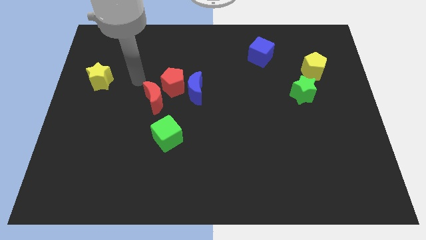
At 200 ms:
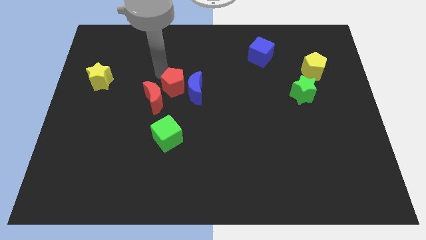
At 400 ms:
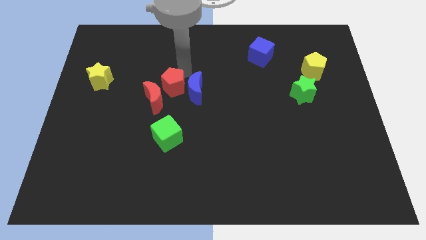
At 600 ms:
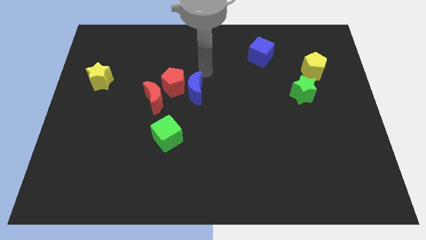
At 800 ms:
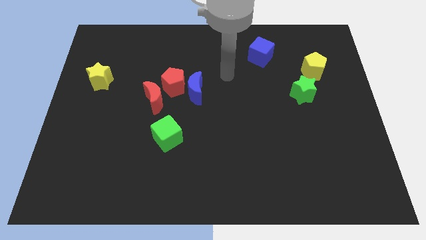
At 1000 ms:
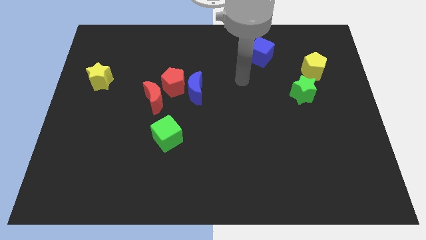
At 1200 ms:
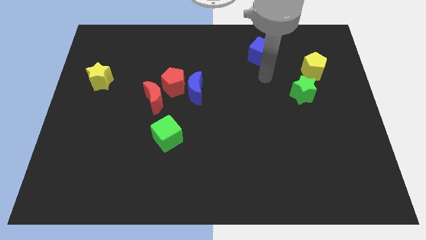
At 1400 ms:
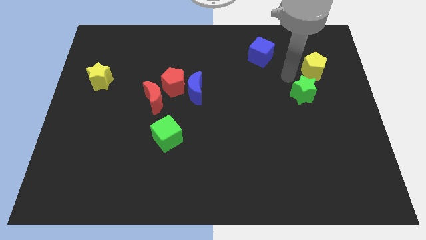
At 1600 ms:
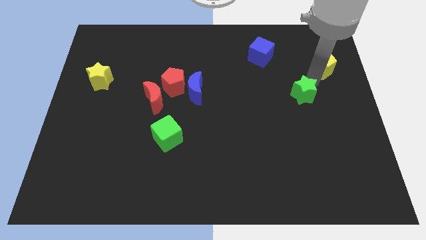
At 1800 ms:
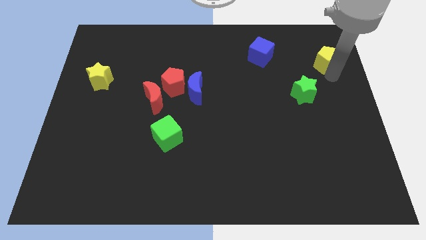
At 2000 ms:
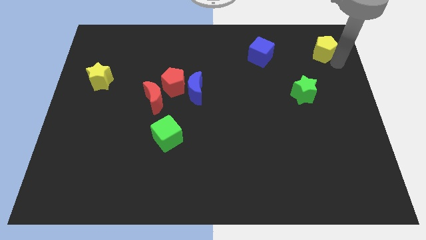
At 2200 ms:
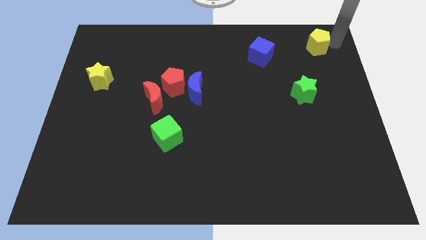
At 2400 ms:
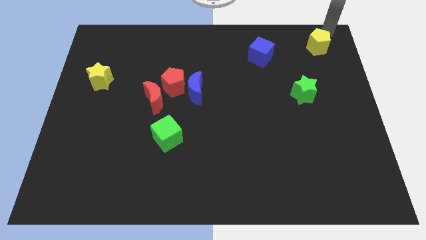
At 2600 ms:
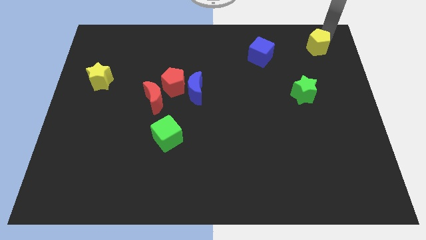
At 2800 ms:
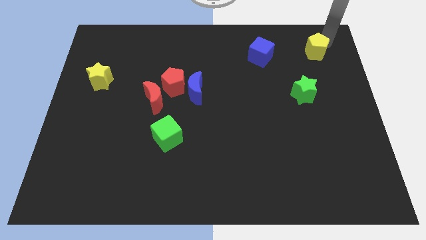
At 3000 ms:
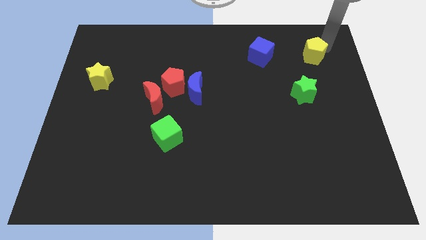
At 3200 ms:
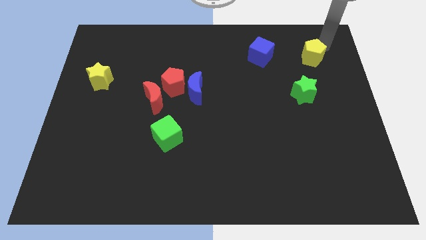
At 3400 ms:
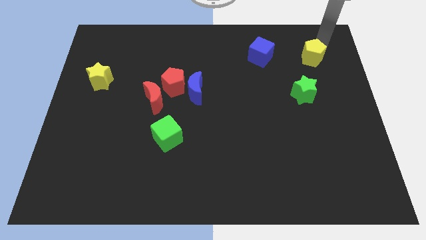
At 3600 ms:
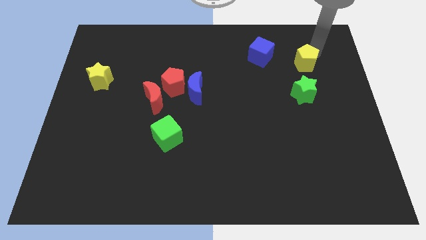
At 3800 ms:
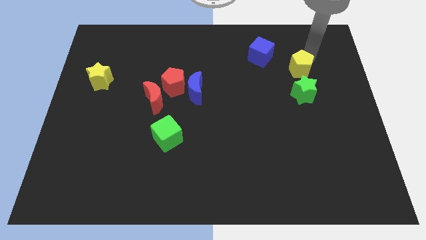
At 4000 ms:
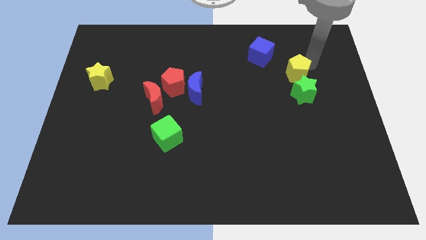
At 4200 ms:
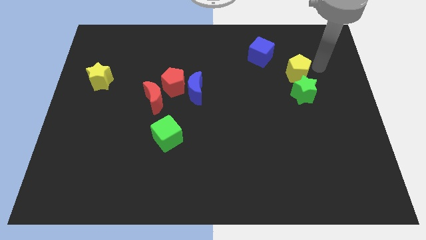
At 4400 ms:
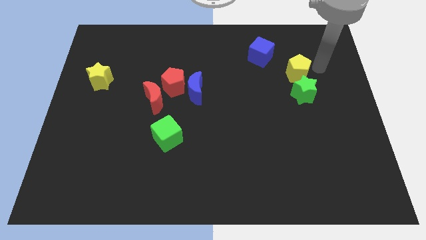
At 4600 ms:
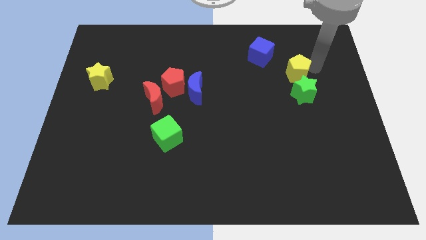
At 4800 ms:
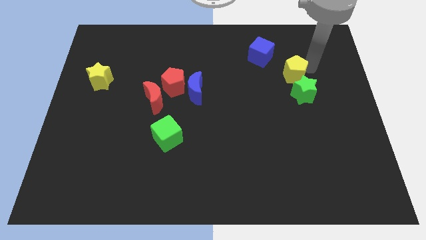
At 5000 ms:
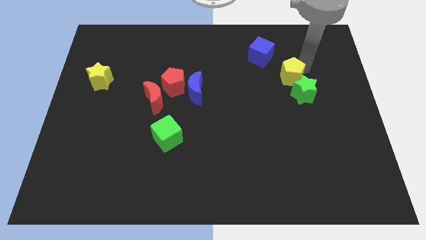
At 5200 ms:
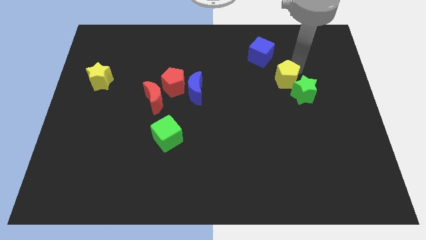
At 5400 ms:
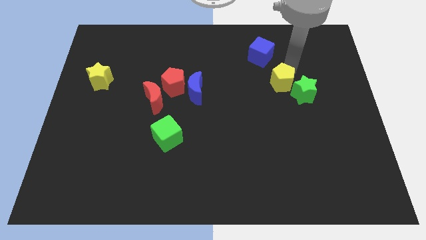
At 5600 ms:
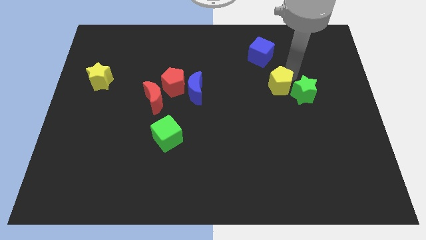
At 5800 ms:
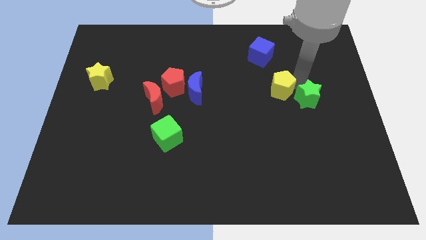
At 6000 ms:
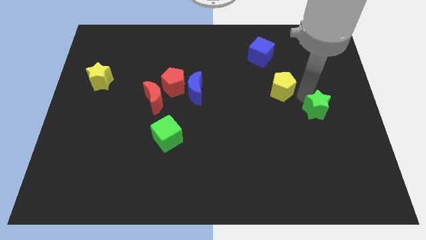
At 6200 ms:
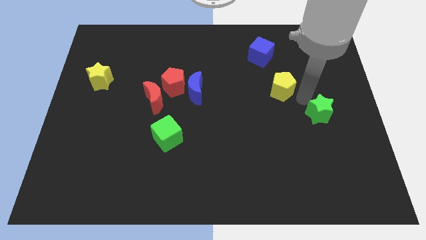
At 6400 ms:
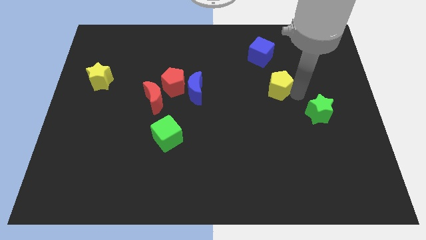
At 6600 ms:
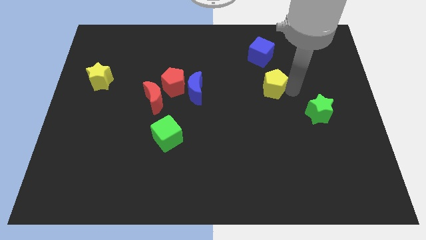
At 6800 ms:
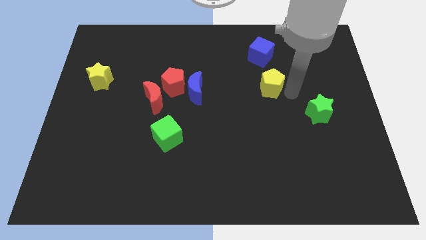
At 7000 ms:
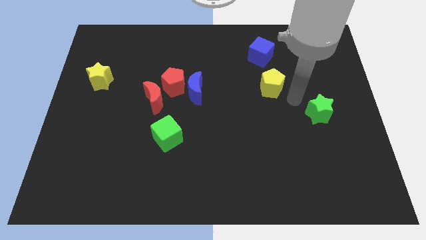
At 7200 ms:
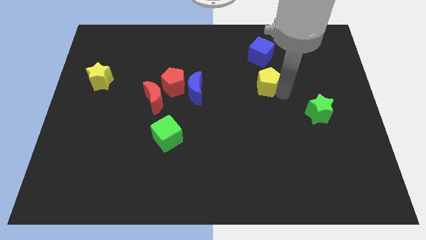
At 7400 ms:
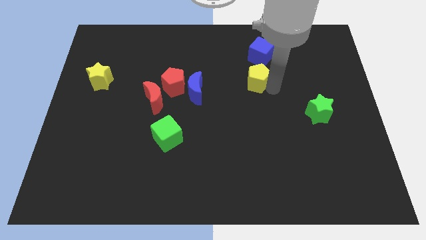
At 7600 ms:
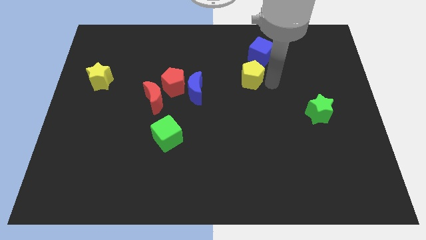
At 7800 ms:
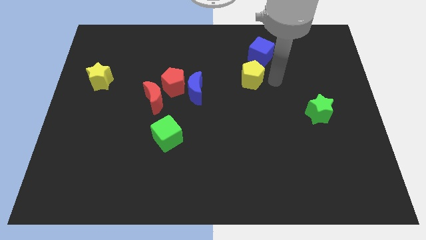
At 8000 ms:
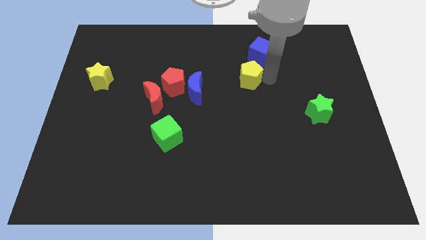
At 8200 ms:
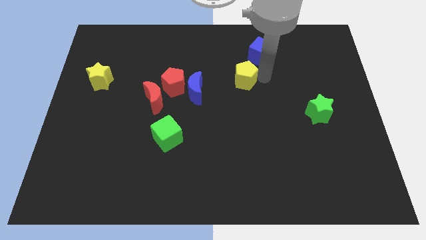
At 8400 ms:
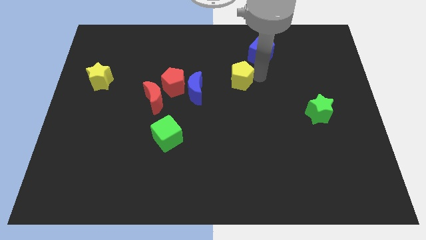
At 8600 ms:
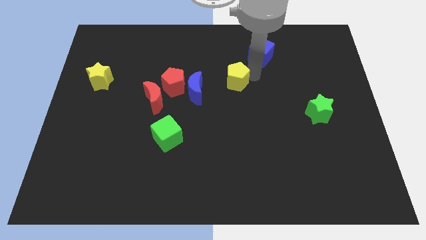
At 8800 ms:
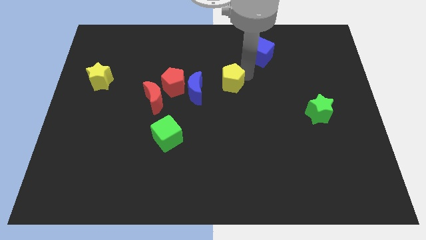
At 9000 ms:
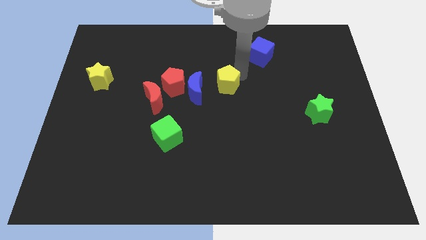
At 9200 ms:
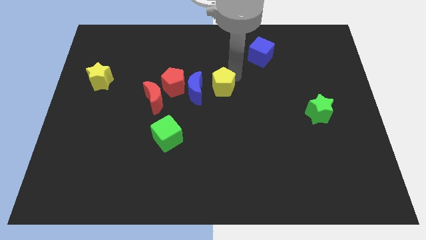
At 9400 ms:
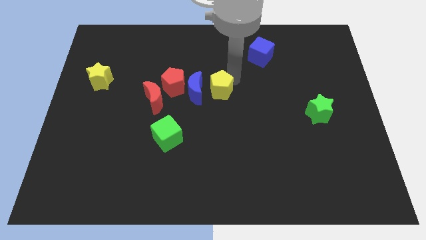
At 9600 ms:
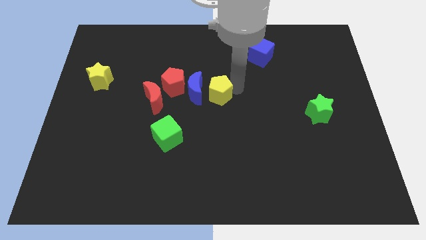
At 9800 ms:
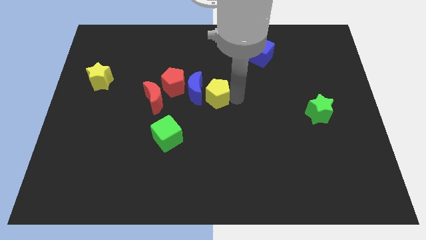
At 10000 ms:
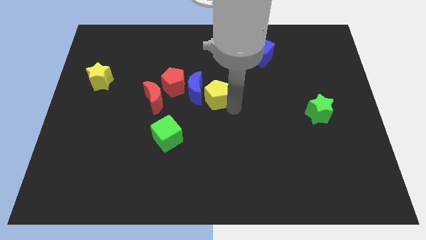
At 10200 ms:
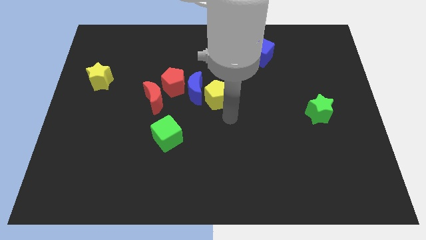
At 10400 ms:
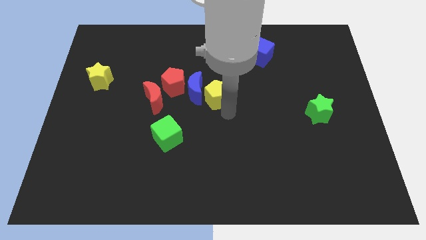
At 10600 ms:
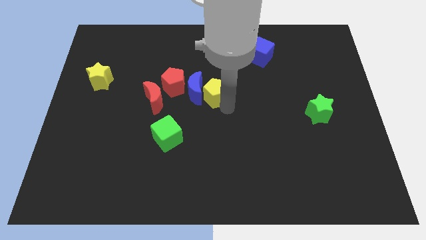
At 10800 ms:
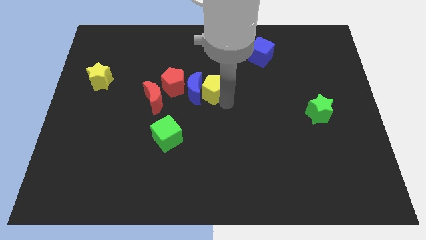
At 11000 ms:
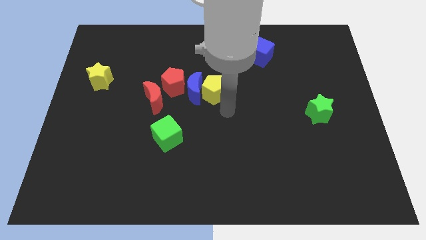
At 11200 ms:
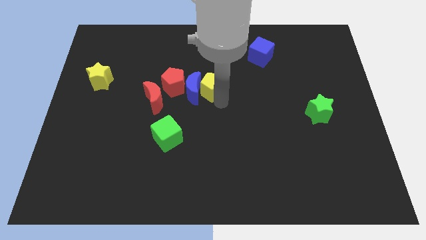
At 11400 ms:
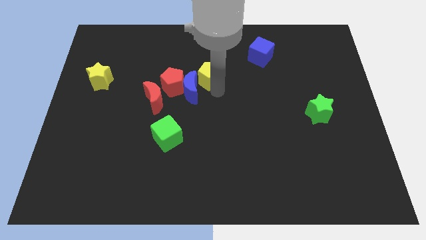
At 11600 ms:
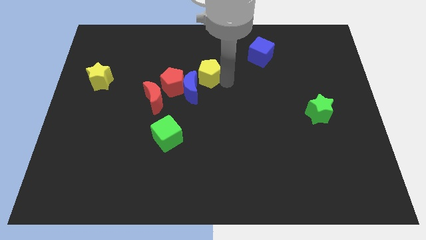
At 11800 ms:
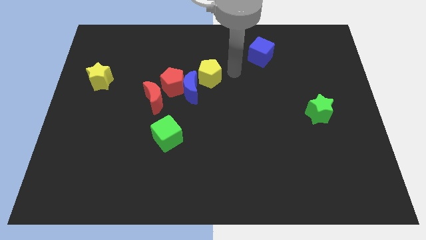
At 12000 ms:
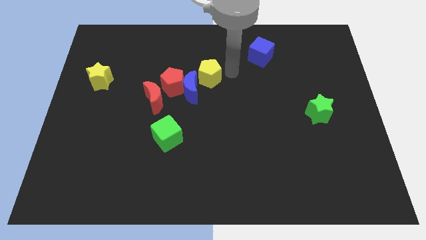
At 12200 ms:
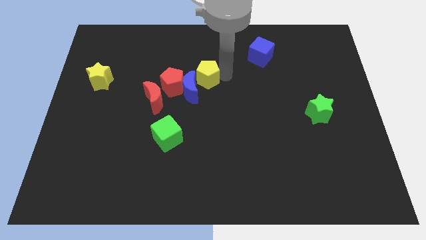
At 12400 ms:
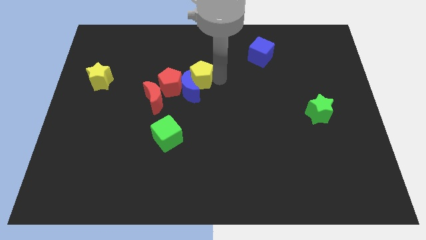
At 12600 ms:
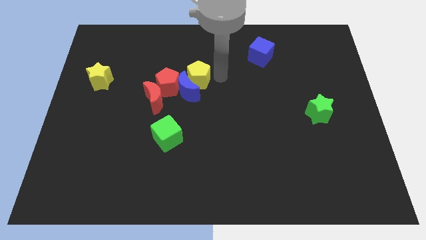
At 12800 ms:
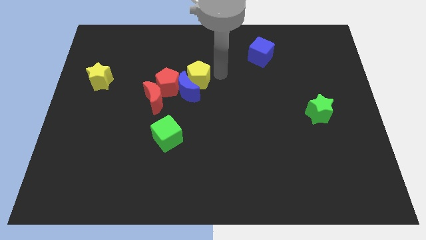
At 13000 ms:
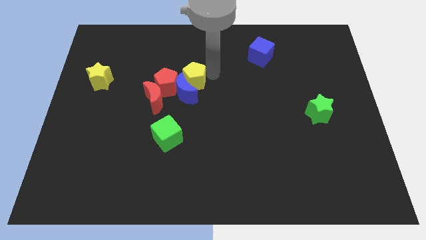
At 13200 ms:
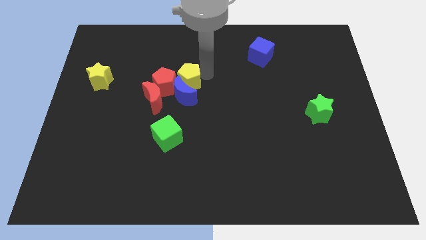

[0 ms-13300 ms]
slide the yellow pentagon next to the red pentagon

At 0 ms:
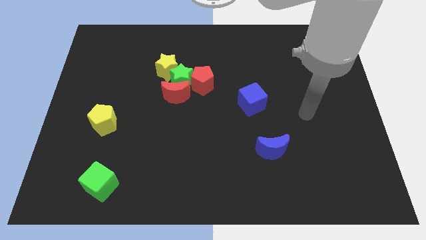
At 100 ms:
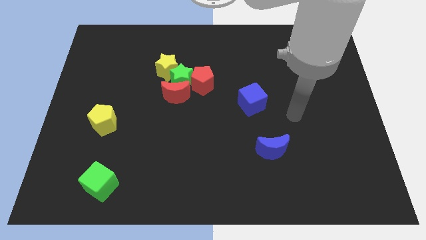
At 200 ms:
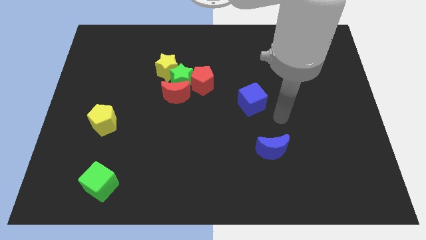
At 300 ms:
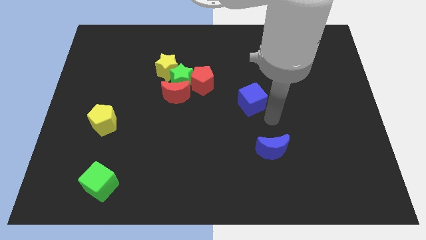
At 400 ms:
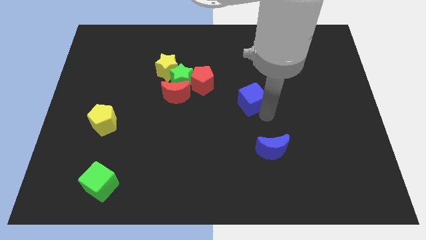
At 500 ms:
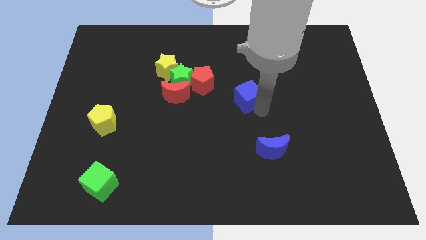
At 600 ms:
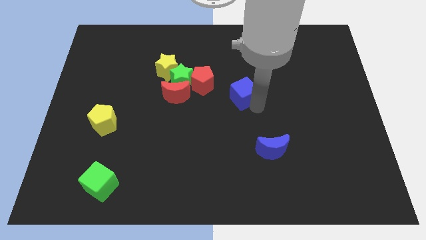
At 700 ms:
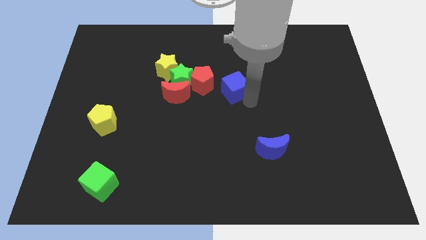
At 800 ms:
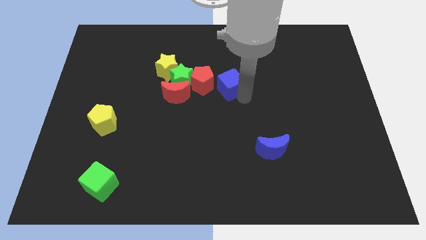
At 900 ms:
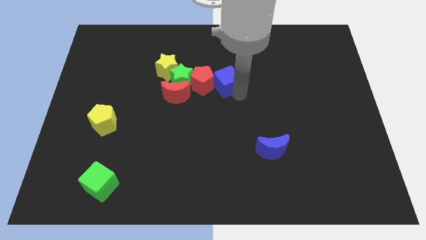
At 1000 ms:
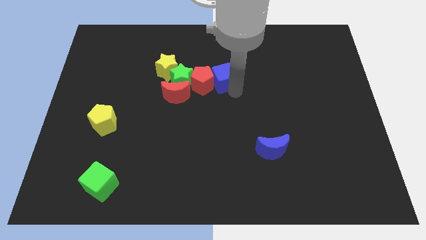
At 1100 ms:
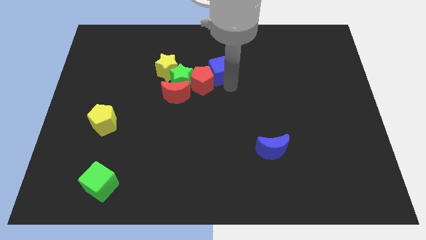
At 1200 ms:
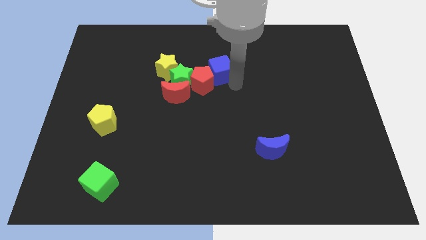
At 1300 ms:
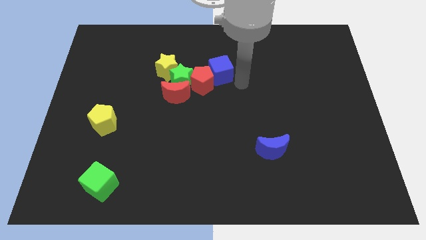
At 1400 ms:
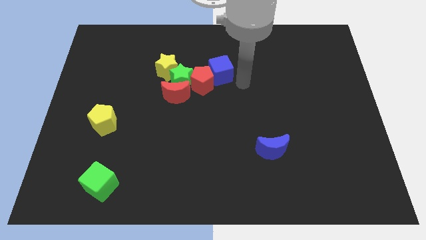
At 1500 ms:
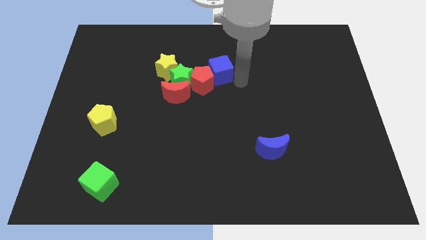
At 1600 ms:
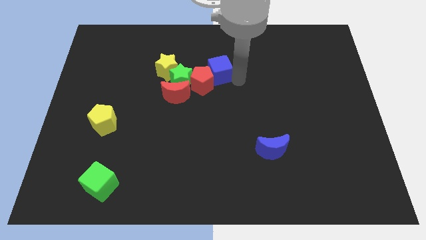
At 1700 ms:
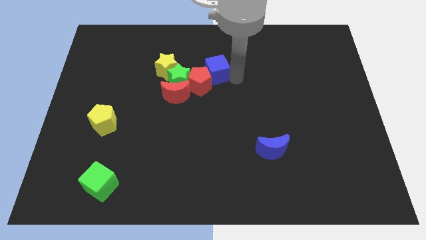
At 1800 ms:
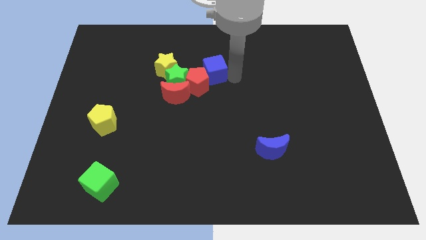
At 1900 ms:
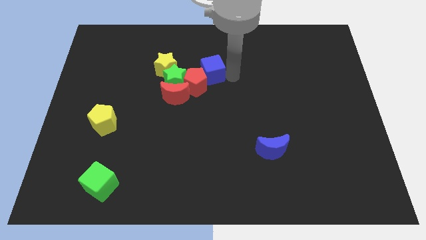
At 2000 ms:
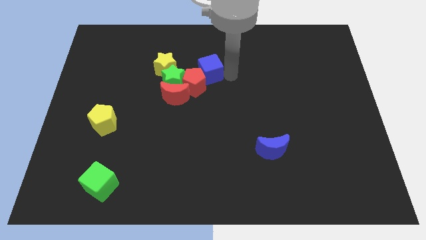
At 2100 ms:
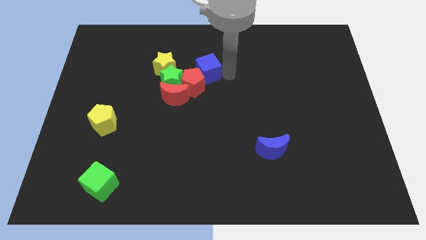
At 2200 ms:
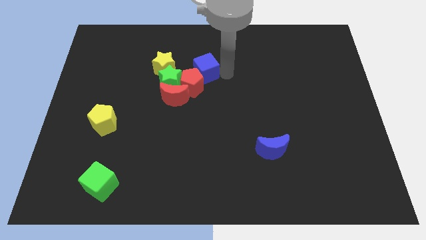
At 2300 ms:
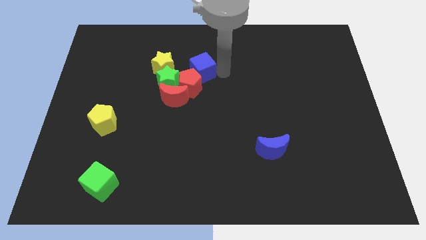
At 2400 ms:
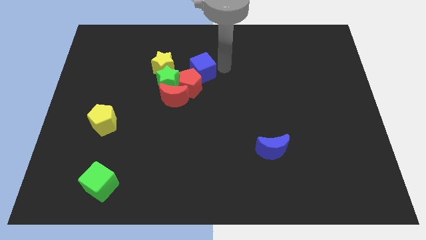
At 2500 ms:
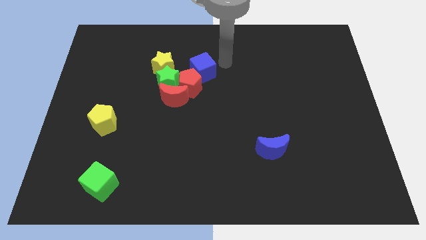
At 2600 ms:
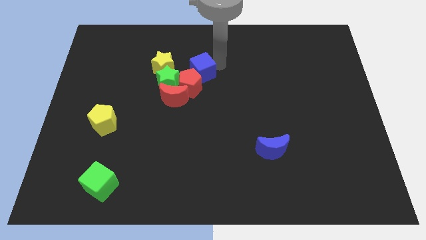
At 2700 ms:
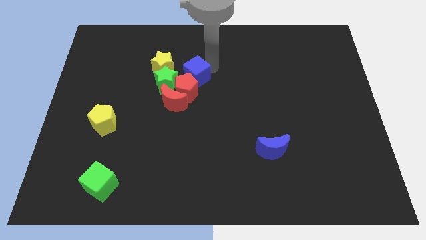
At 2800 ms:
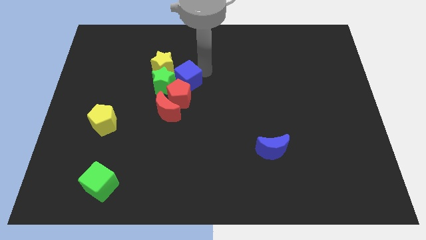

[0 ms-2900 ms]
push the blue cube to the green star
